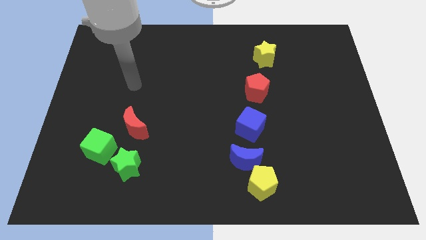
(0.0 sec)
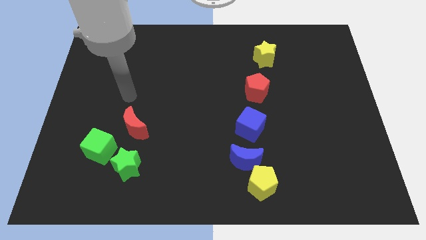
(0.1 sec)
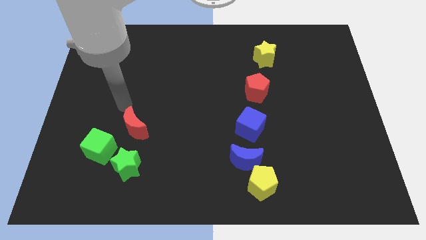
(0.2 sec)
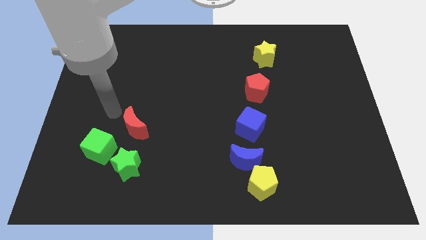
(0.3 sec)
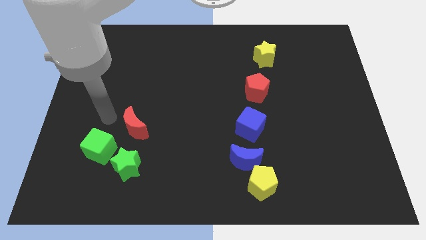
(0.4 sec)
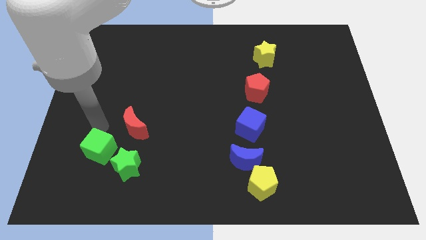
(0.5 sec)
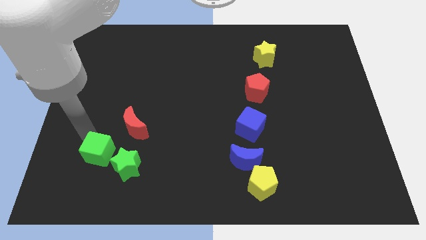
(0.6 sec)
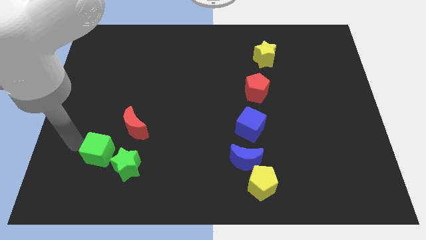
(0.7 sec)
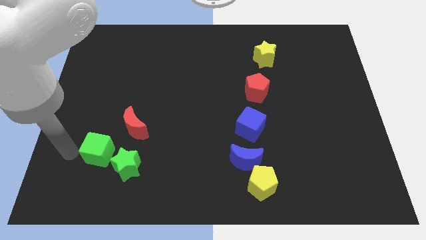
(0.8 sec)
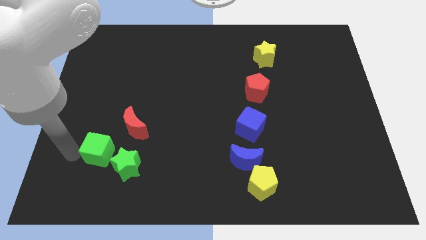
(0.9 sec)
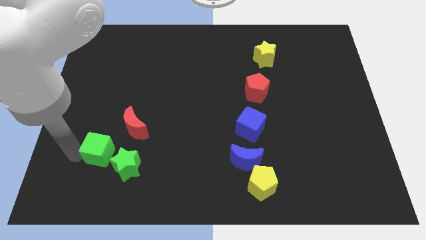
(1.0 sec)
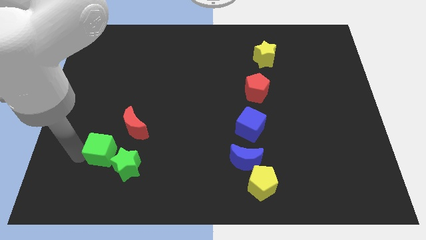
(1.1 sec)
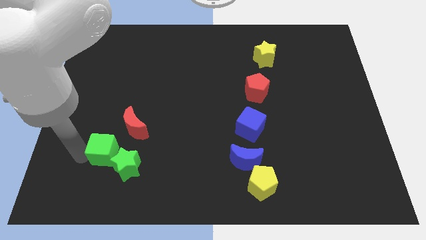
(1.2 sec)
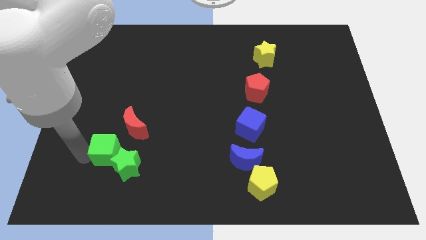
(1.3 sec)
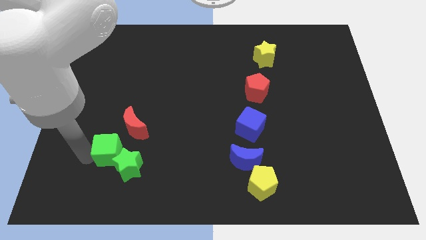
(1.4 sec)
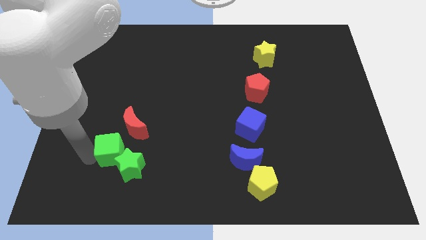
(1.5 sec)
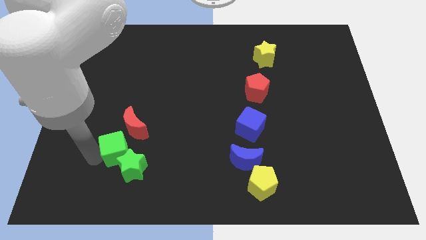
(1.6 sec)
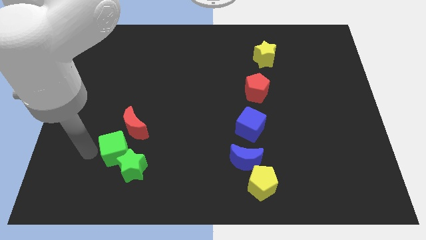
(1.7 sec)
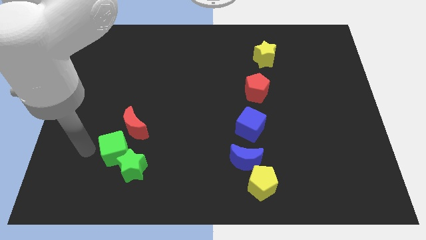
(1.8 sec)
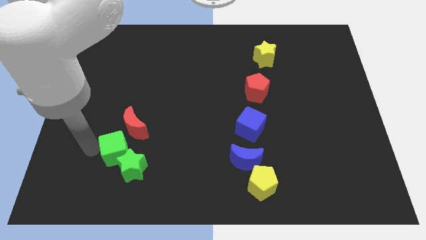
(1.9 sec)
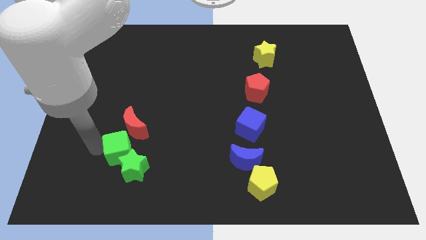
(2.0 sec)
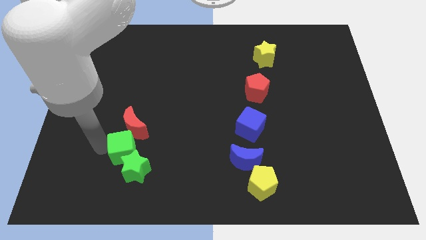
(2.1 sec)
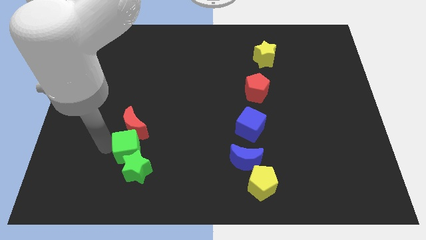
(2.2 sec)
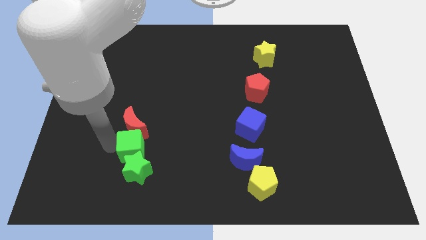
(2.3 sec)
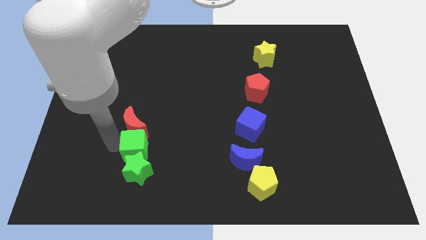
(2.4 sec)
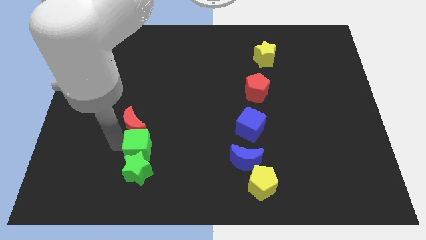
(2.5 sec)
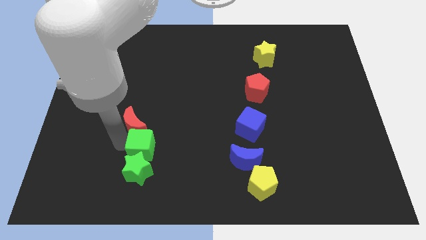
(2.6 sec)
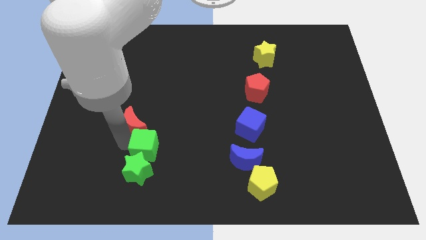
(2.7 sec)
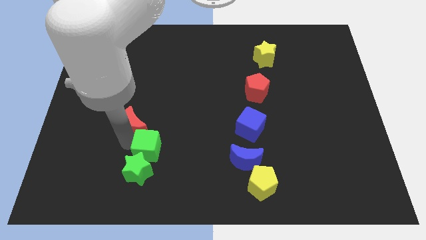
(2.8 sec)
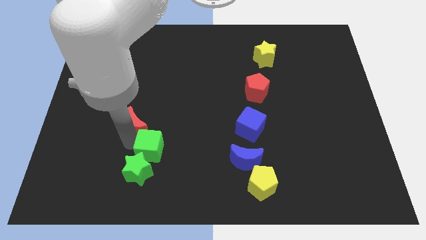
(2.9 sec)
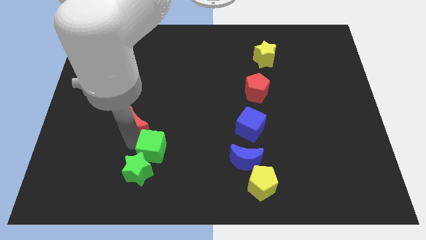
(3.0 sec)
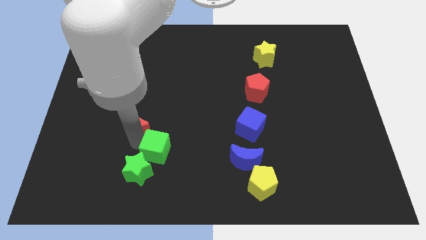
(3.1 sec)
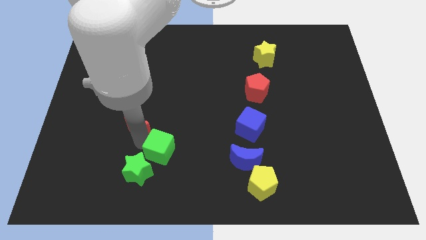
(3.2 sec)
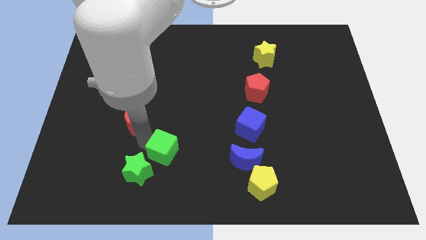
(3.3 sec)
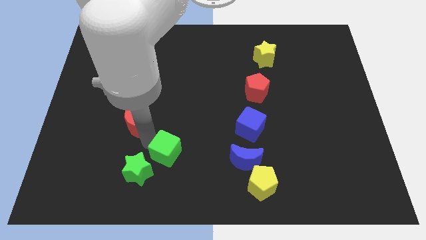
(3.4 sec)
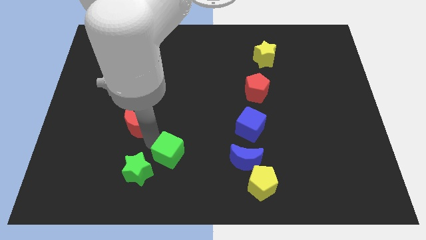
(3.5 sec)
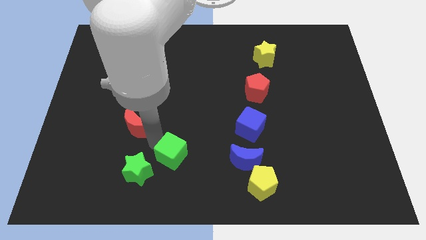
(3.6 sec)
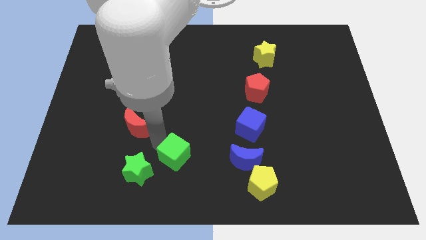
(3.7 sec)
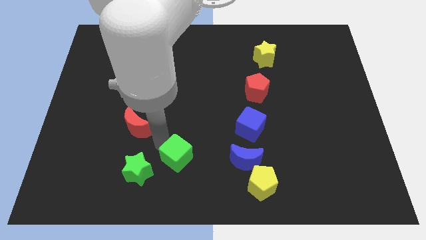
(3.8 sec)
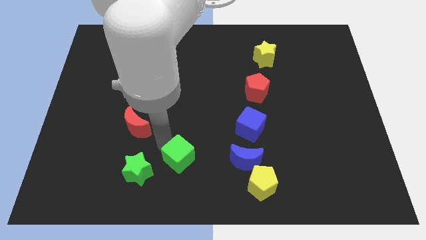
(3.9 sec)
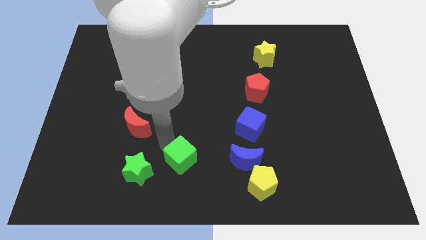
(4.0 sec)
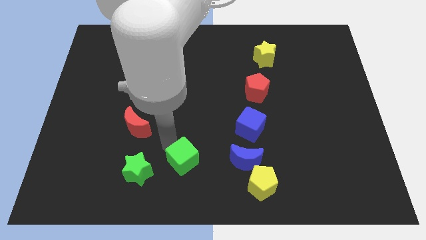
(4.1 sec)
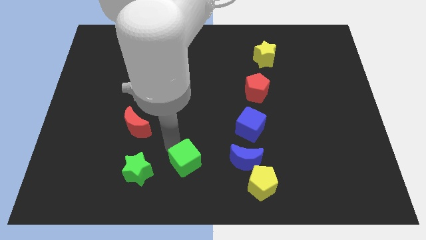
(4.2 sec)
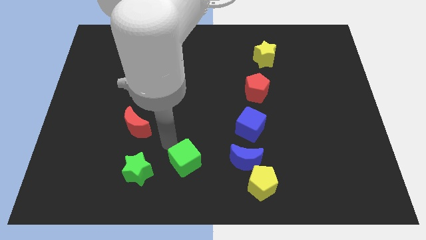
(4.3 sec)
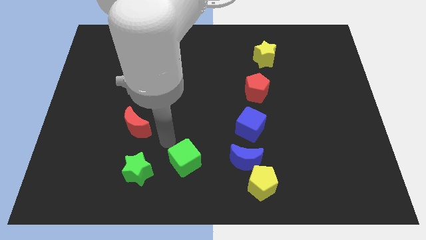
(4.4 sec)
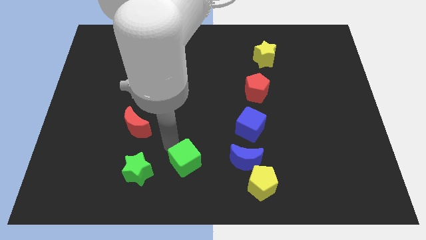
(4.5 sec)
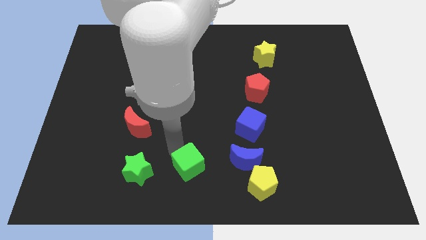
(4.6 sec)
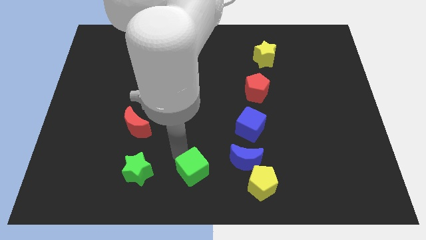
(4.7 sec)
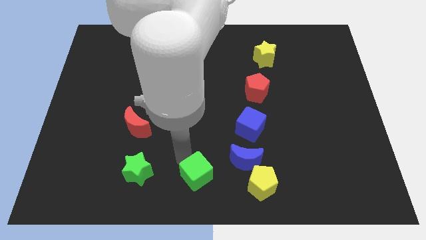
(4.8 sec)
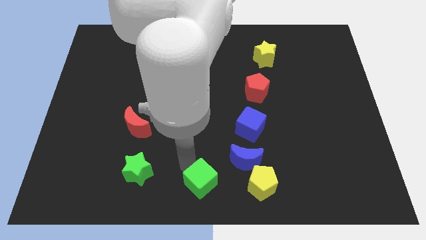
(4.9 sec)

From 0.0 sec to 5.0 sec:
slide the green cube diagonally down and to the left of the blue moon

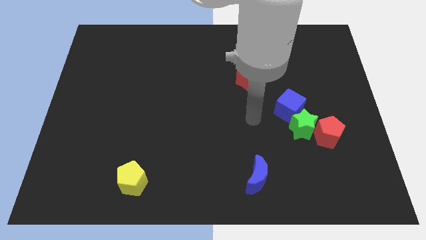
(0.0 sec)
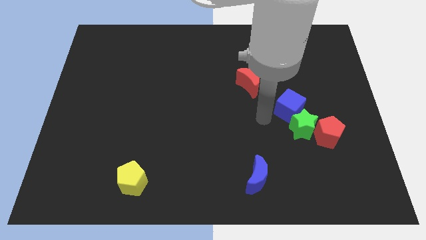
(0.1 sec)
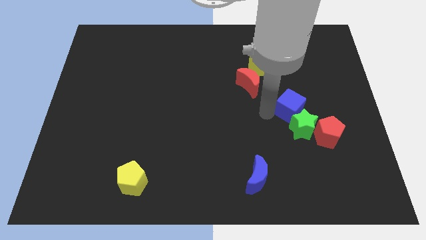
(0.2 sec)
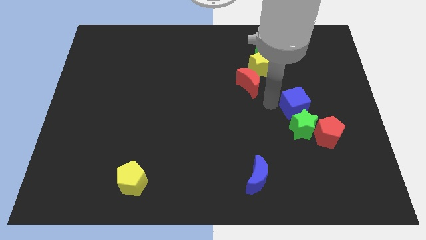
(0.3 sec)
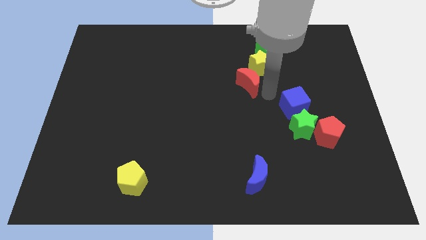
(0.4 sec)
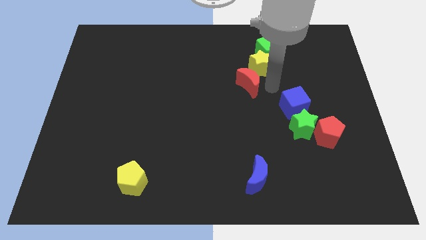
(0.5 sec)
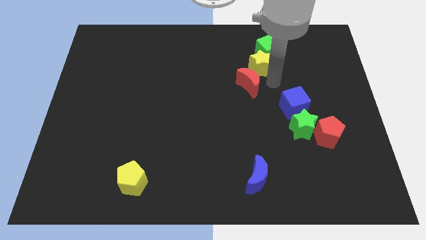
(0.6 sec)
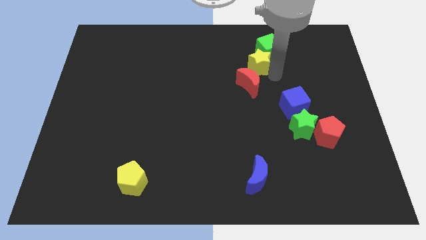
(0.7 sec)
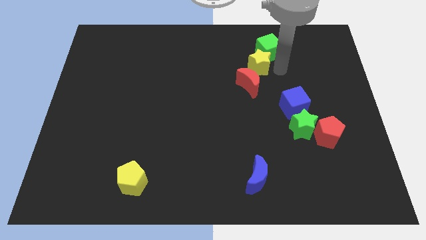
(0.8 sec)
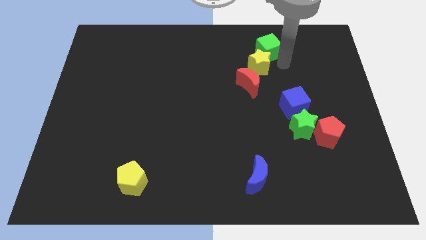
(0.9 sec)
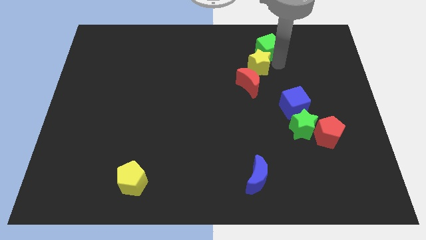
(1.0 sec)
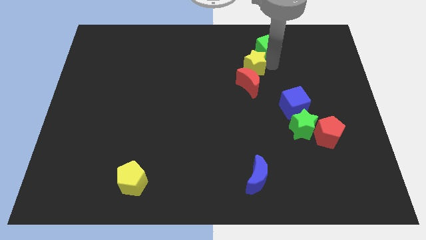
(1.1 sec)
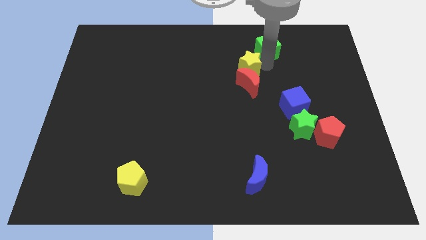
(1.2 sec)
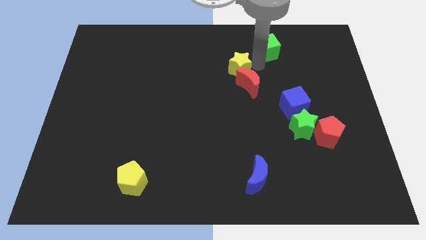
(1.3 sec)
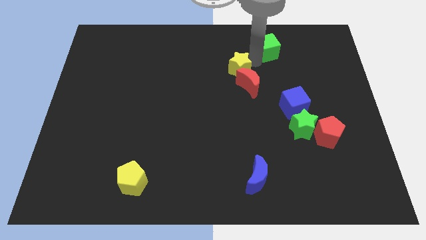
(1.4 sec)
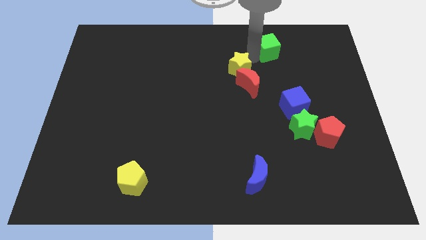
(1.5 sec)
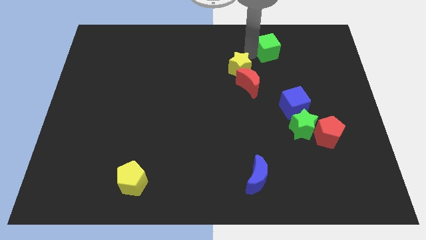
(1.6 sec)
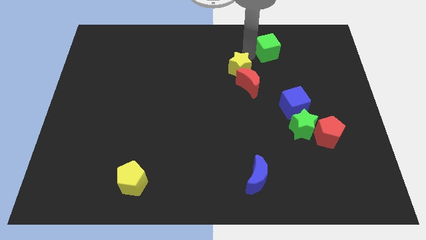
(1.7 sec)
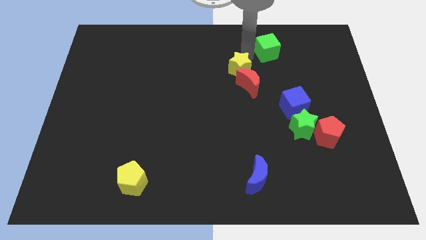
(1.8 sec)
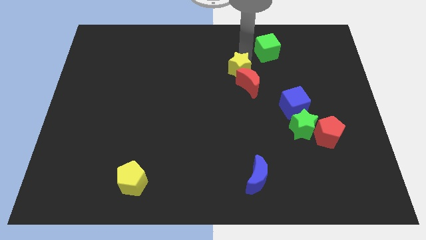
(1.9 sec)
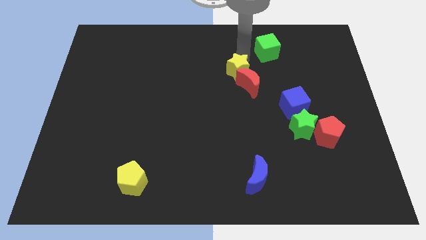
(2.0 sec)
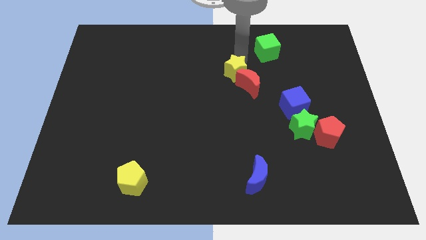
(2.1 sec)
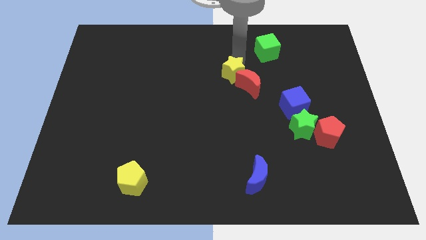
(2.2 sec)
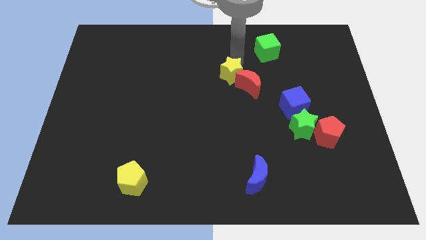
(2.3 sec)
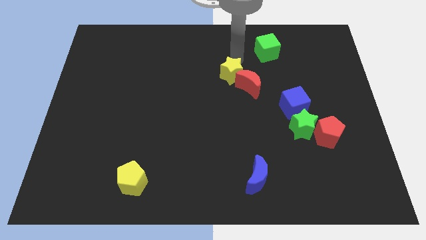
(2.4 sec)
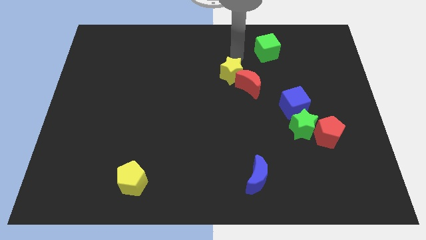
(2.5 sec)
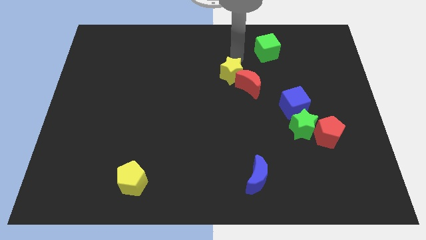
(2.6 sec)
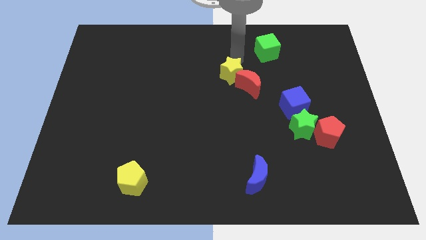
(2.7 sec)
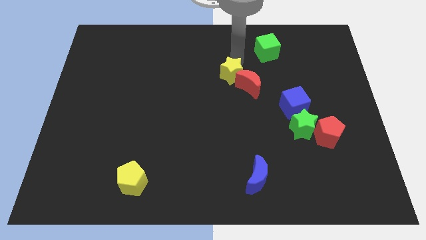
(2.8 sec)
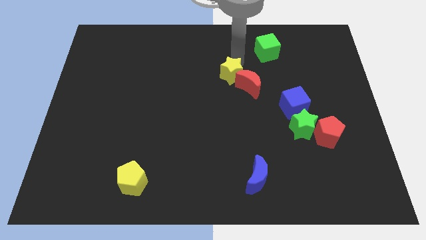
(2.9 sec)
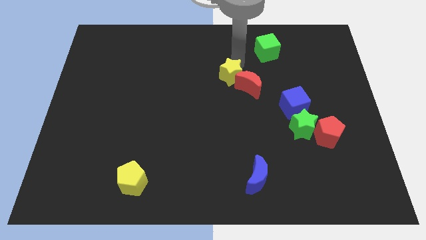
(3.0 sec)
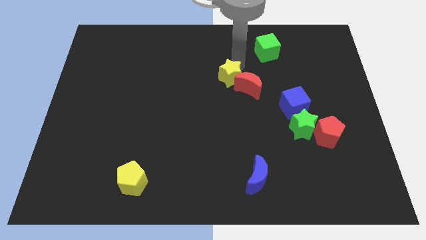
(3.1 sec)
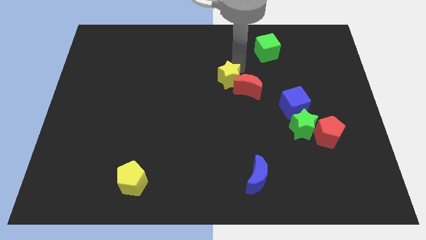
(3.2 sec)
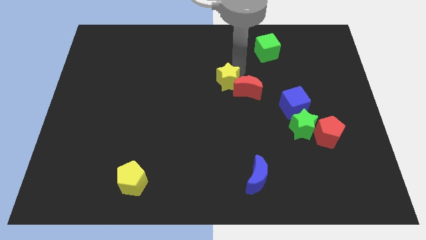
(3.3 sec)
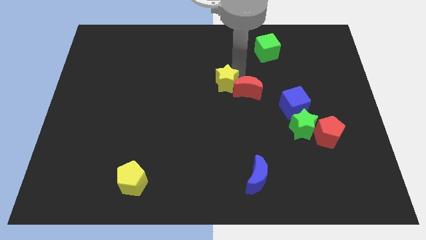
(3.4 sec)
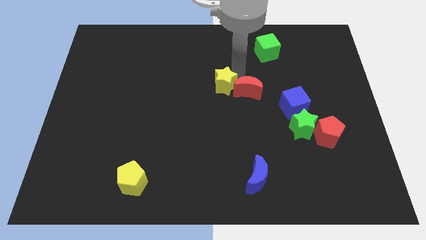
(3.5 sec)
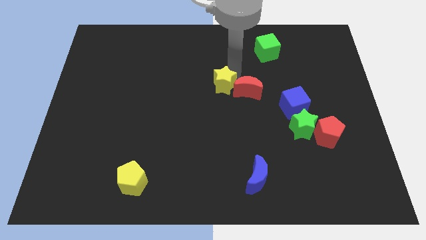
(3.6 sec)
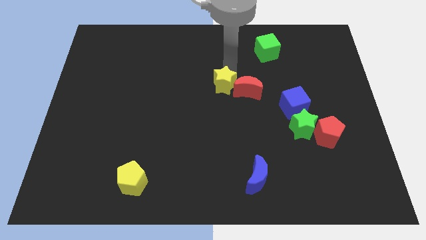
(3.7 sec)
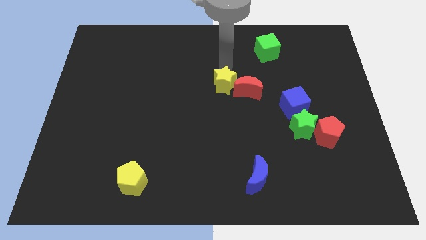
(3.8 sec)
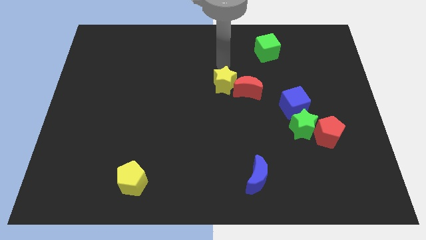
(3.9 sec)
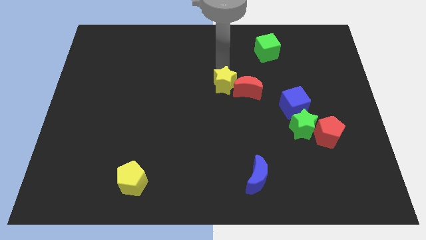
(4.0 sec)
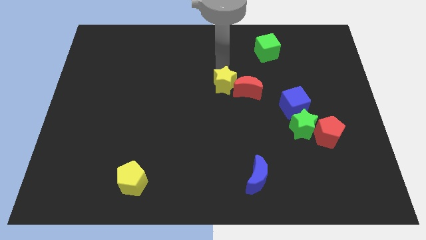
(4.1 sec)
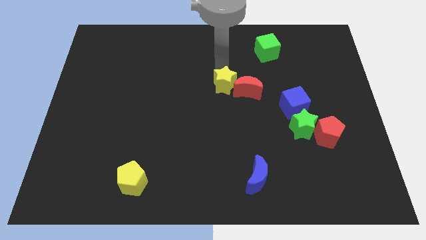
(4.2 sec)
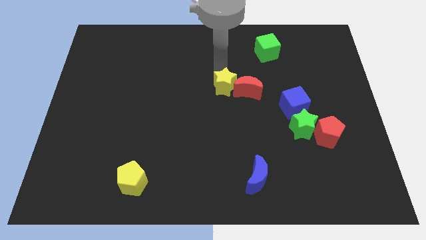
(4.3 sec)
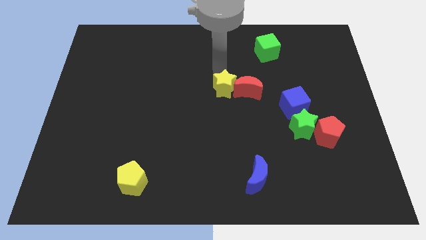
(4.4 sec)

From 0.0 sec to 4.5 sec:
put the yellow star to the bottom left side of the red moon
